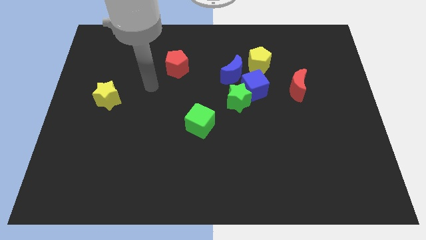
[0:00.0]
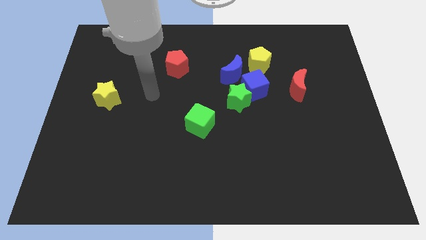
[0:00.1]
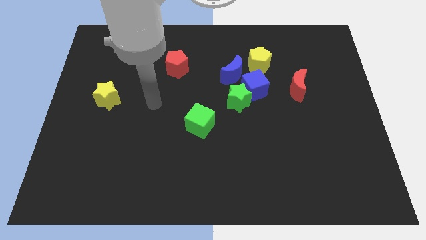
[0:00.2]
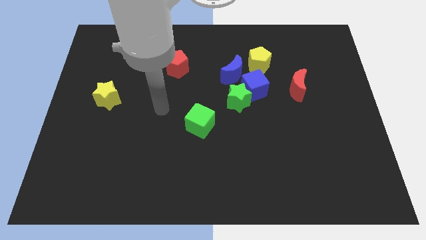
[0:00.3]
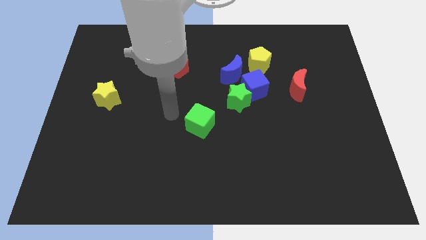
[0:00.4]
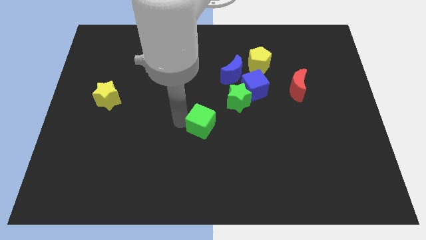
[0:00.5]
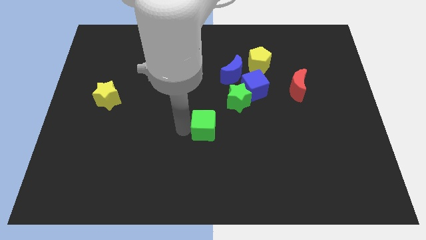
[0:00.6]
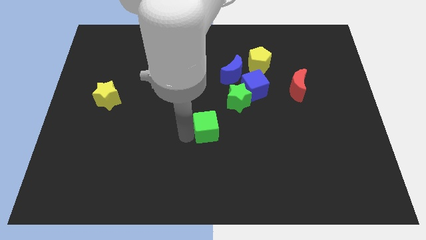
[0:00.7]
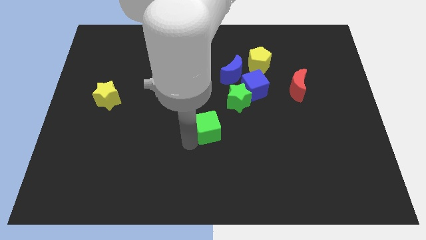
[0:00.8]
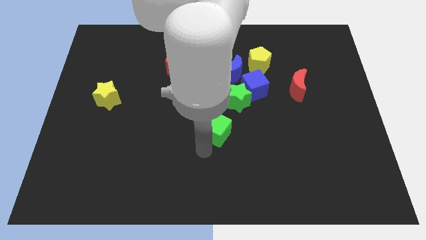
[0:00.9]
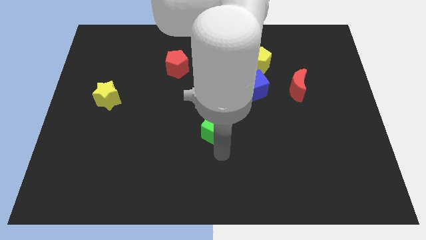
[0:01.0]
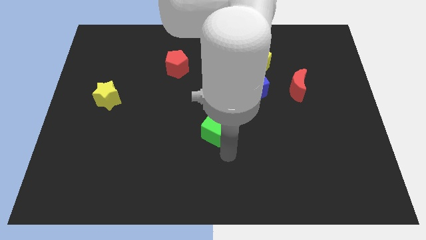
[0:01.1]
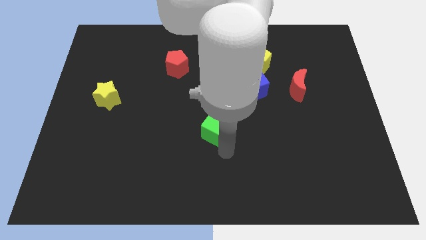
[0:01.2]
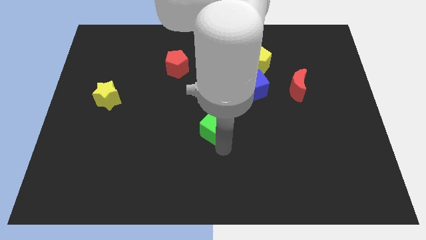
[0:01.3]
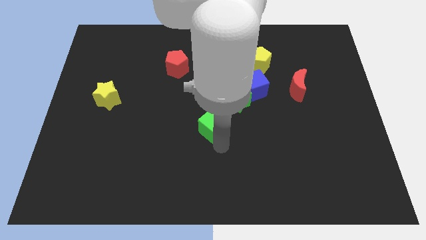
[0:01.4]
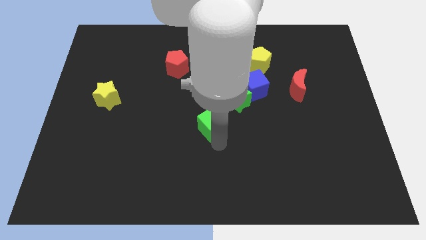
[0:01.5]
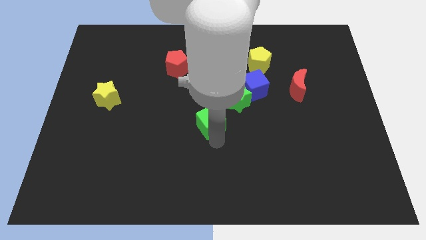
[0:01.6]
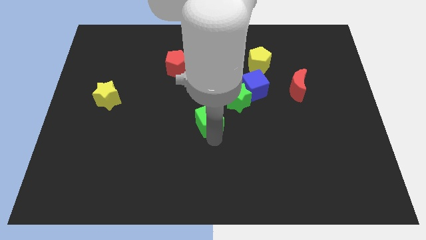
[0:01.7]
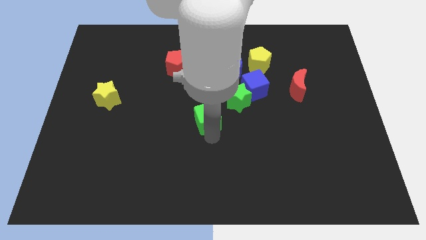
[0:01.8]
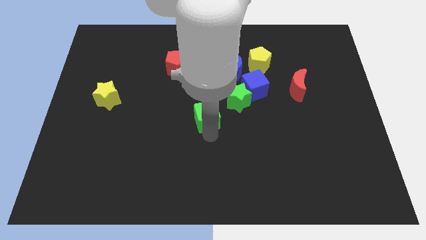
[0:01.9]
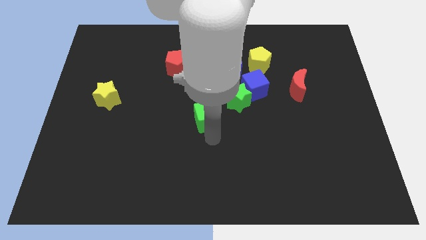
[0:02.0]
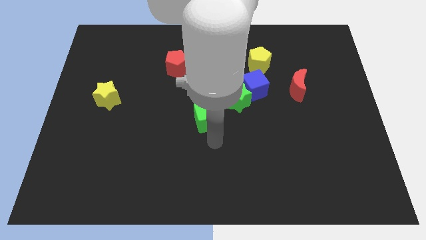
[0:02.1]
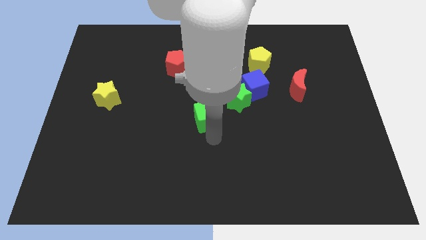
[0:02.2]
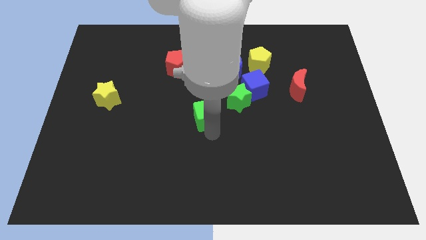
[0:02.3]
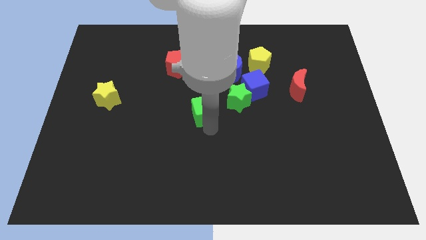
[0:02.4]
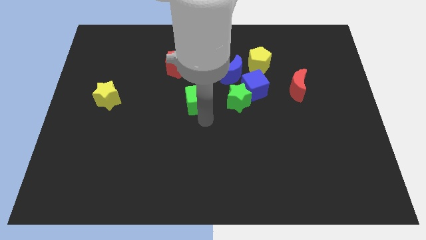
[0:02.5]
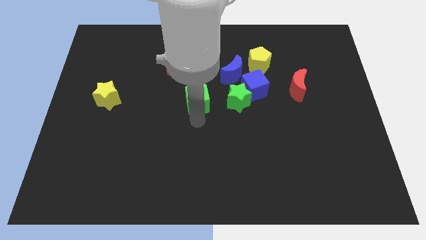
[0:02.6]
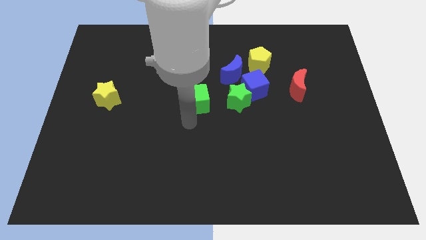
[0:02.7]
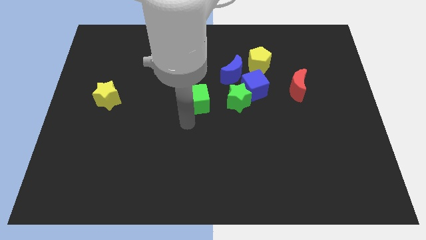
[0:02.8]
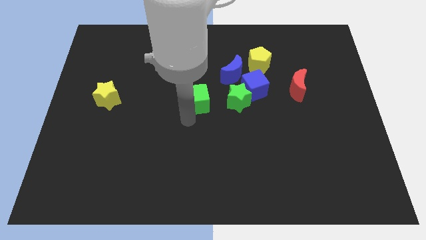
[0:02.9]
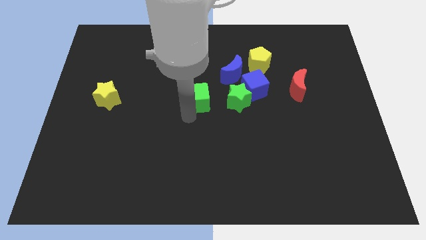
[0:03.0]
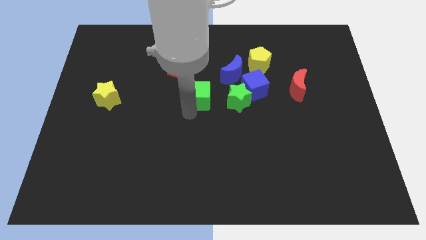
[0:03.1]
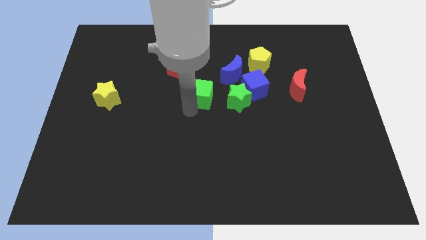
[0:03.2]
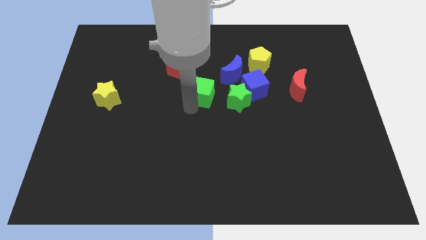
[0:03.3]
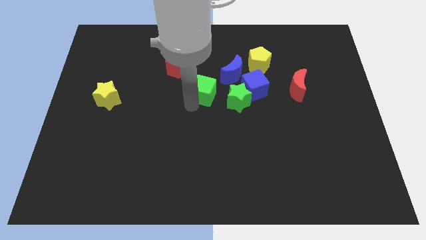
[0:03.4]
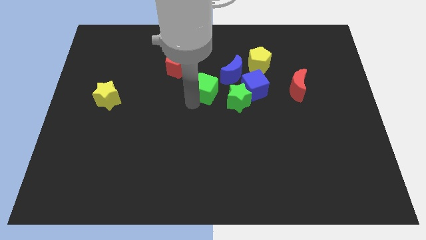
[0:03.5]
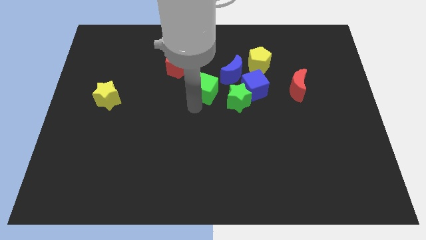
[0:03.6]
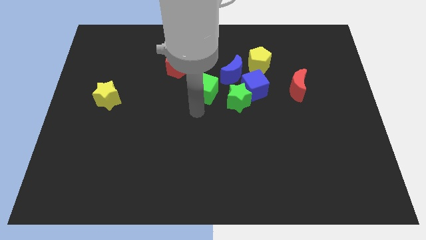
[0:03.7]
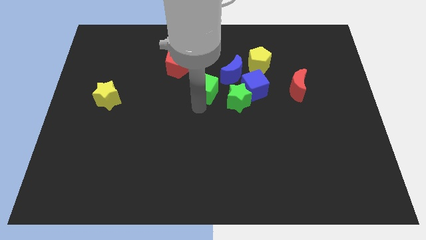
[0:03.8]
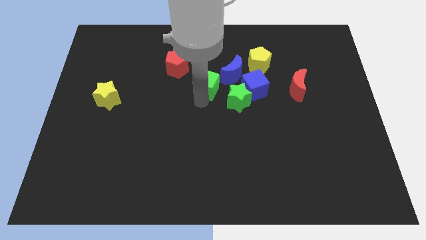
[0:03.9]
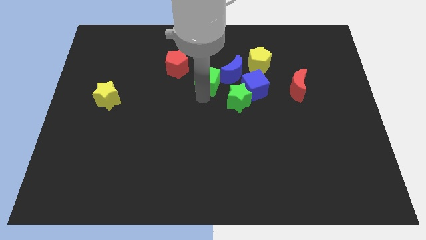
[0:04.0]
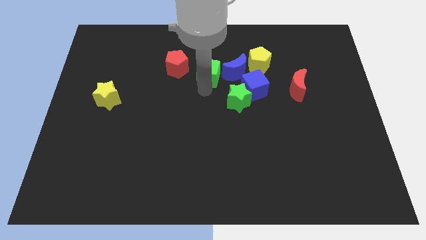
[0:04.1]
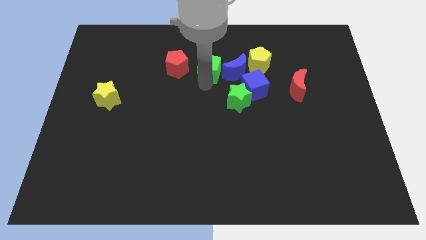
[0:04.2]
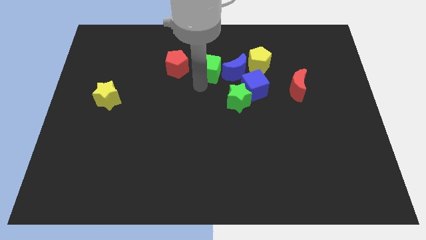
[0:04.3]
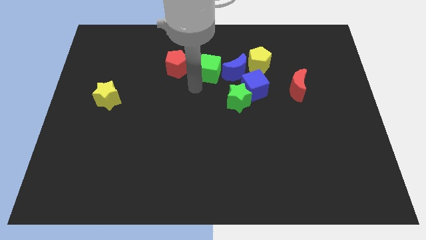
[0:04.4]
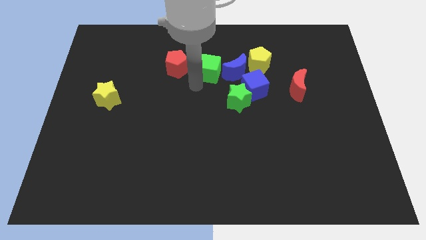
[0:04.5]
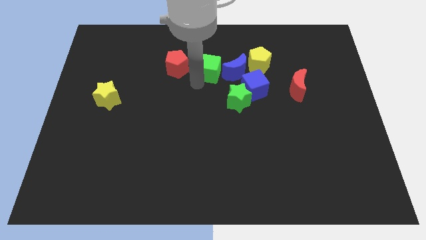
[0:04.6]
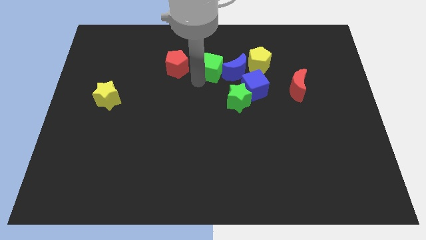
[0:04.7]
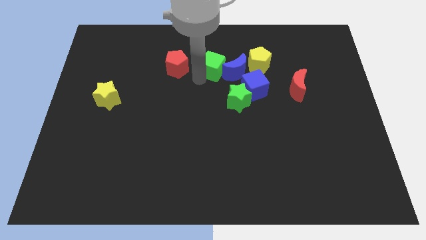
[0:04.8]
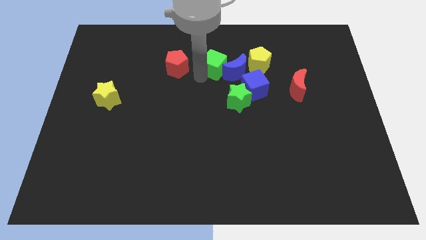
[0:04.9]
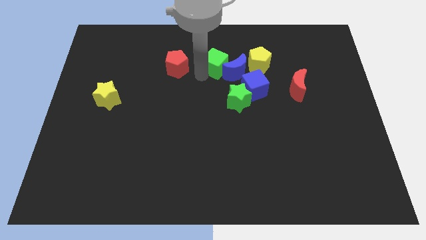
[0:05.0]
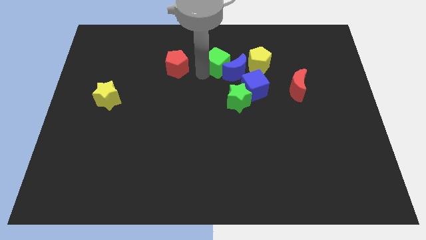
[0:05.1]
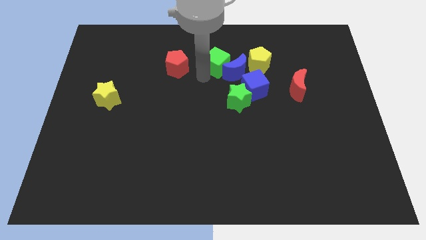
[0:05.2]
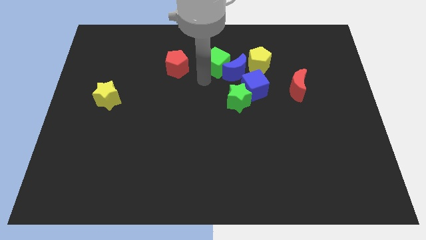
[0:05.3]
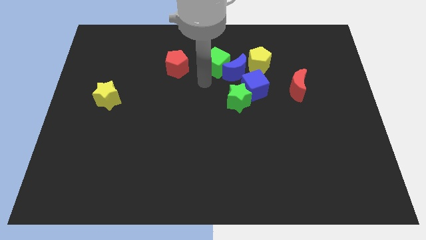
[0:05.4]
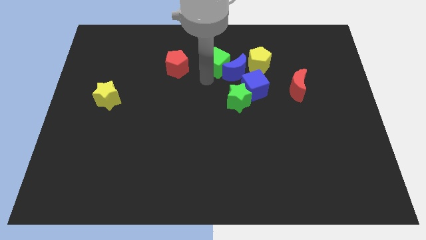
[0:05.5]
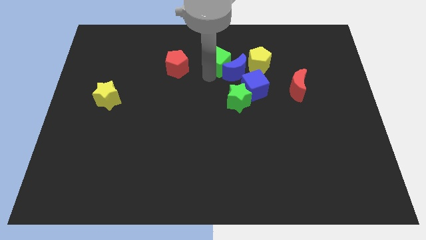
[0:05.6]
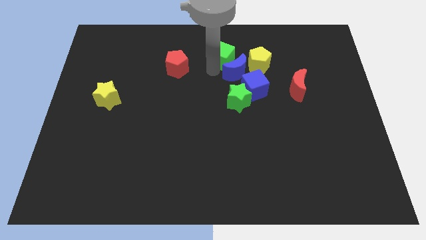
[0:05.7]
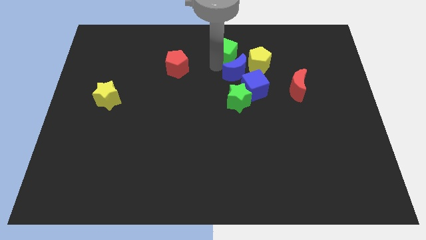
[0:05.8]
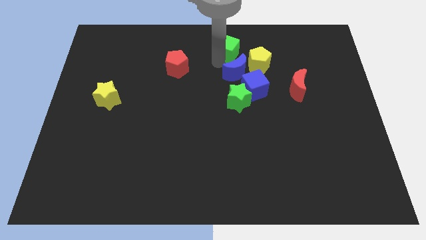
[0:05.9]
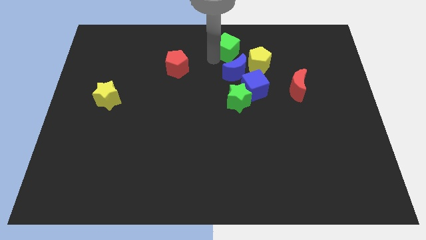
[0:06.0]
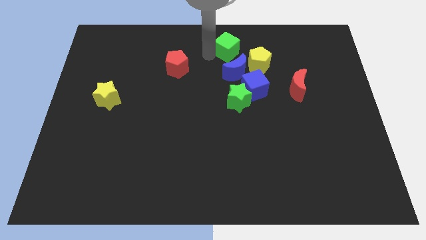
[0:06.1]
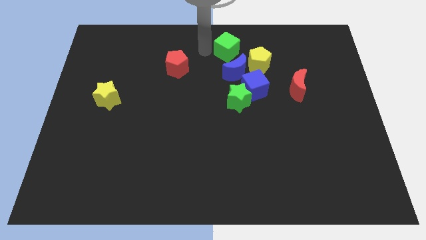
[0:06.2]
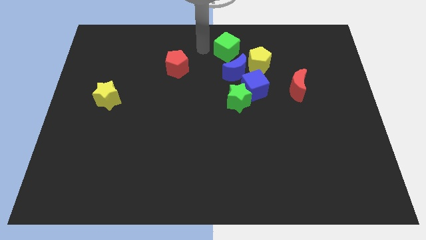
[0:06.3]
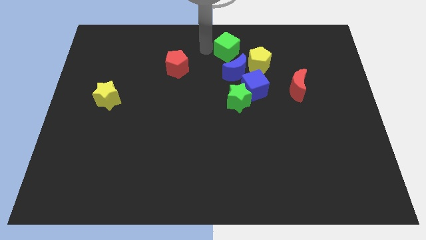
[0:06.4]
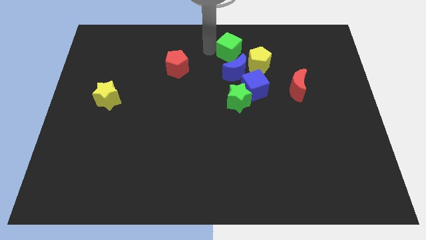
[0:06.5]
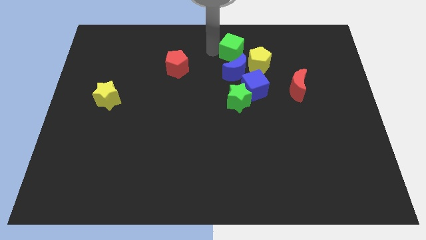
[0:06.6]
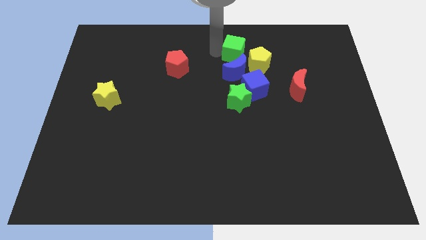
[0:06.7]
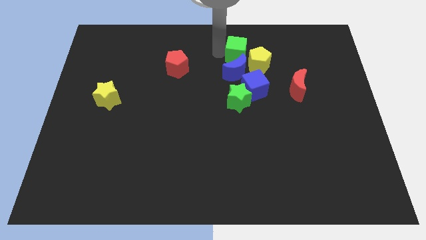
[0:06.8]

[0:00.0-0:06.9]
move the green cube diagonally up and to the right of the blue moon

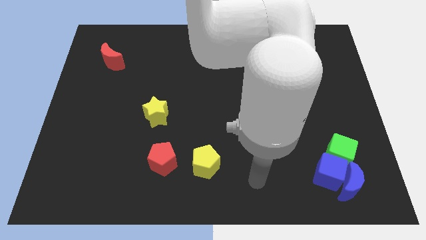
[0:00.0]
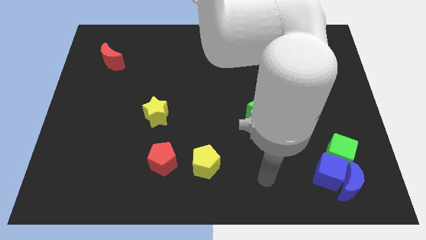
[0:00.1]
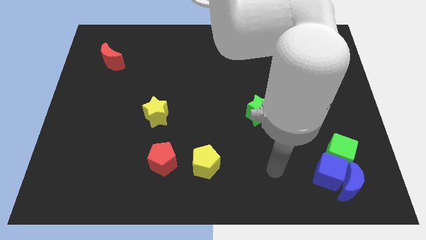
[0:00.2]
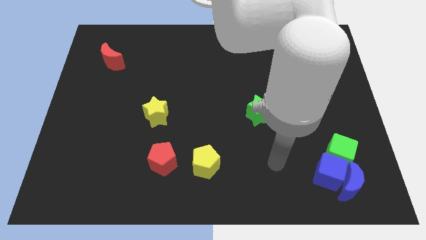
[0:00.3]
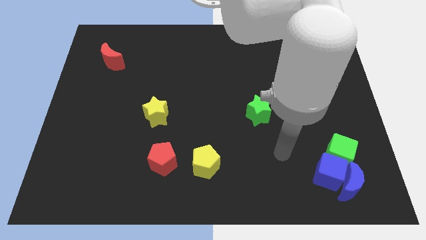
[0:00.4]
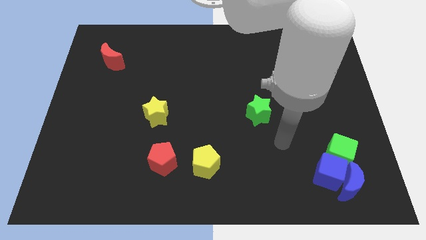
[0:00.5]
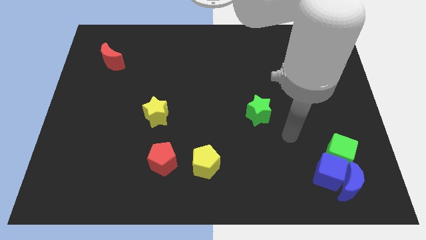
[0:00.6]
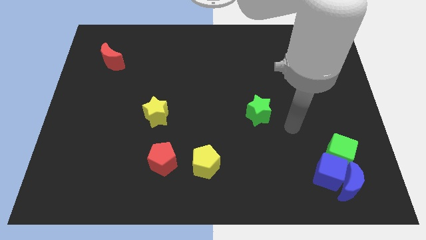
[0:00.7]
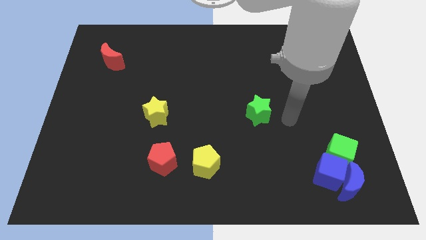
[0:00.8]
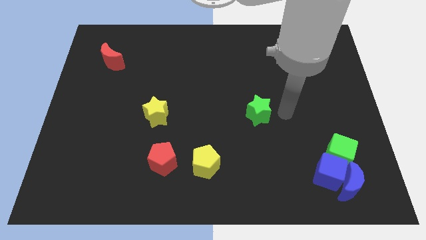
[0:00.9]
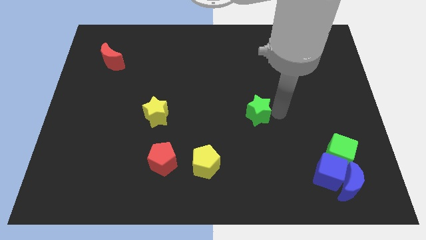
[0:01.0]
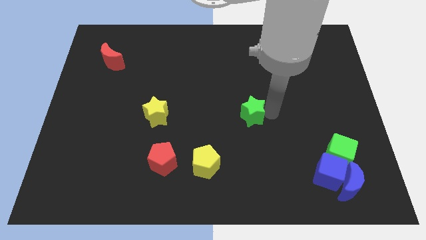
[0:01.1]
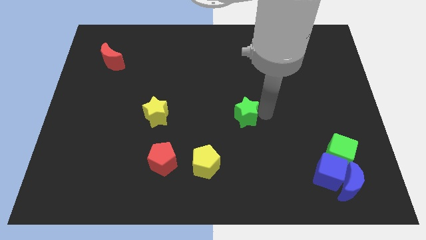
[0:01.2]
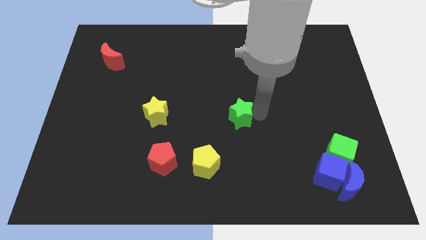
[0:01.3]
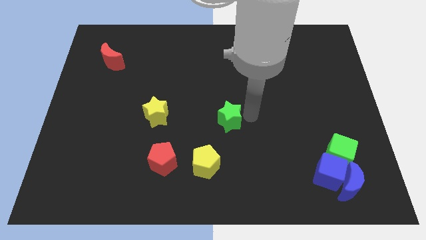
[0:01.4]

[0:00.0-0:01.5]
put the green star right of the yellow star
